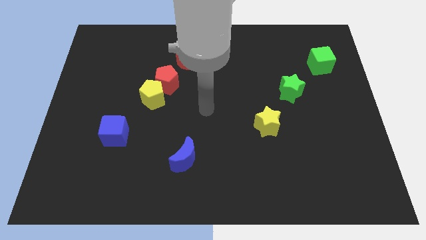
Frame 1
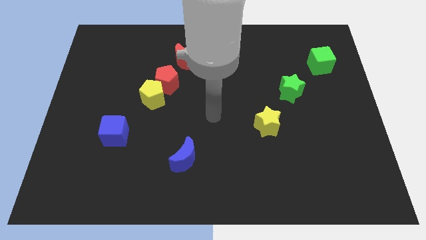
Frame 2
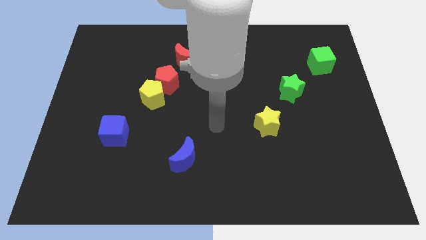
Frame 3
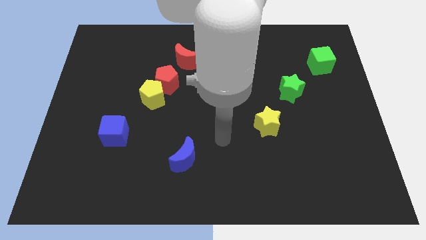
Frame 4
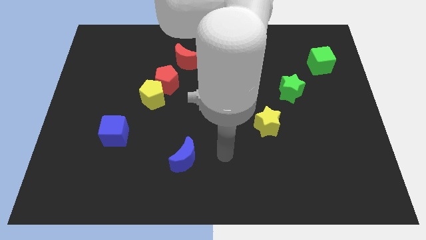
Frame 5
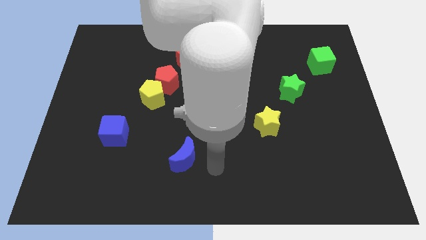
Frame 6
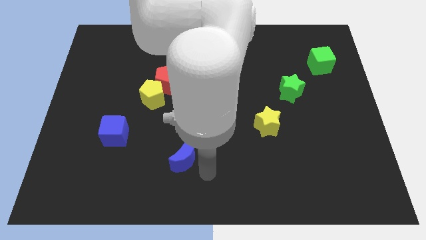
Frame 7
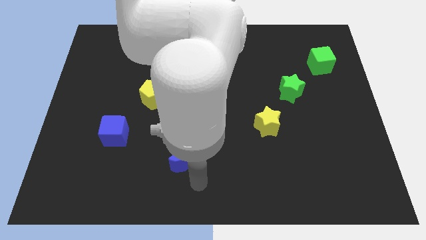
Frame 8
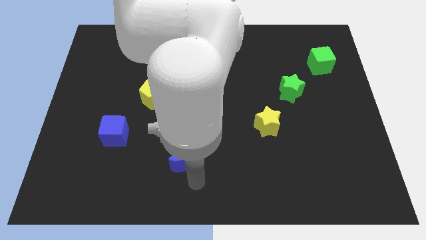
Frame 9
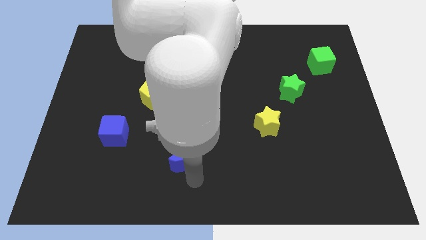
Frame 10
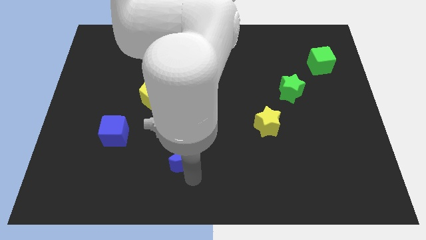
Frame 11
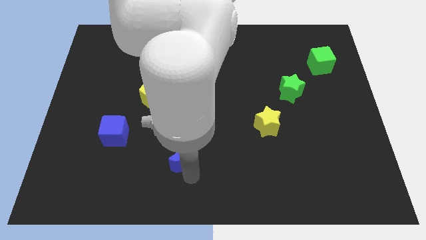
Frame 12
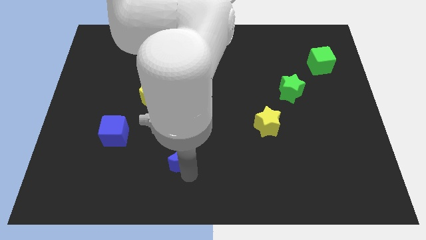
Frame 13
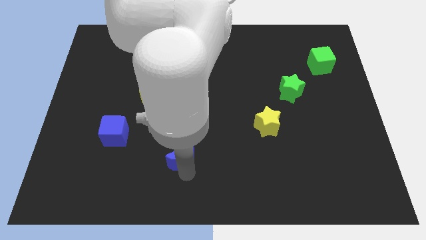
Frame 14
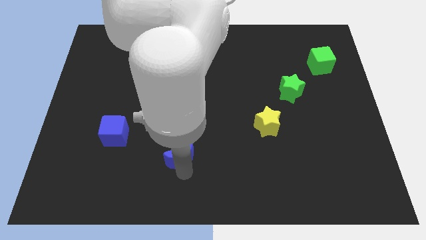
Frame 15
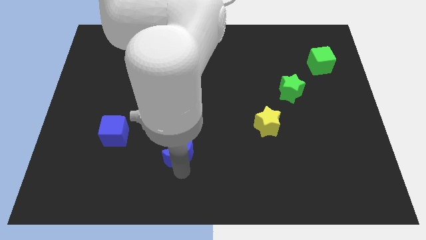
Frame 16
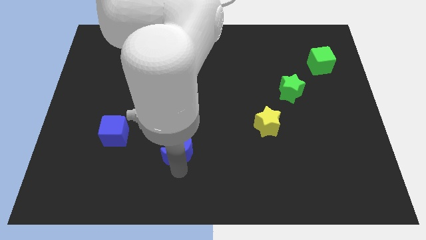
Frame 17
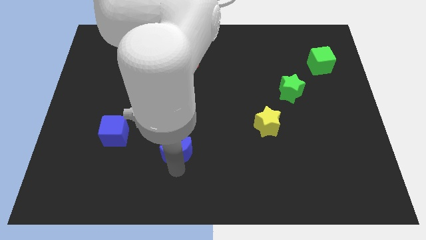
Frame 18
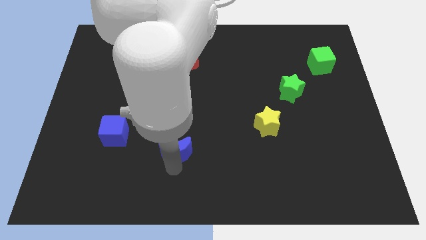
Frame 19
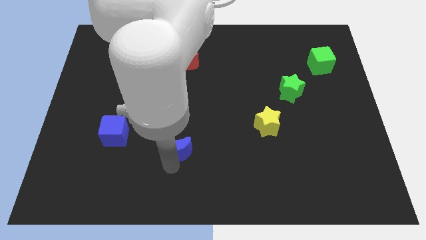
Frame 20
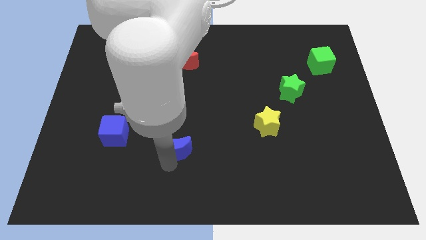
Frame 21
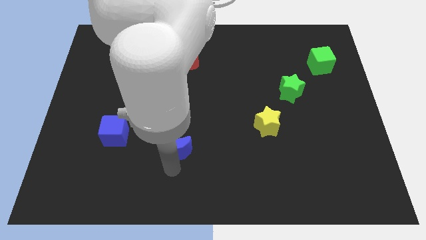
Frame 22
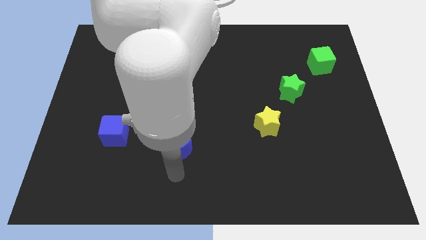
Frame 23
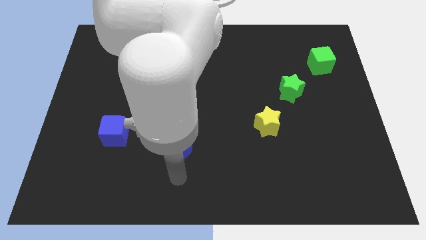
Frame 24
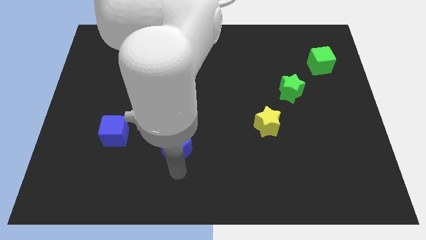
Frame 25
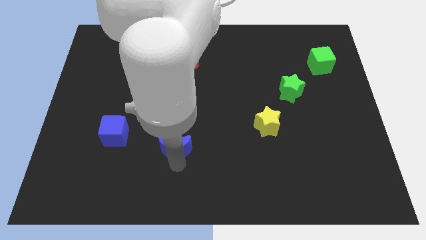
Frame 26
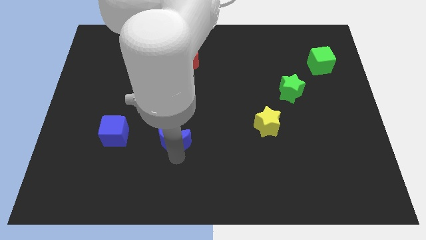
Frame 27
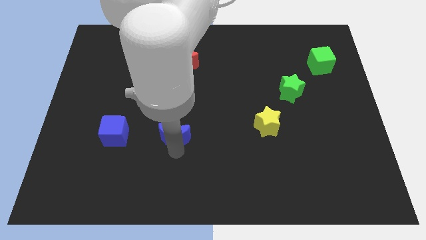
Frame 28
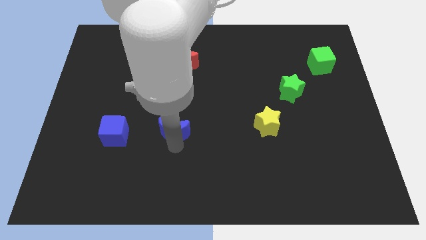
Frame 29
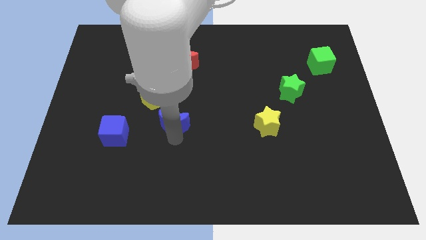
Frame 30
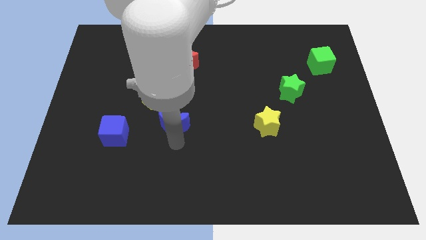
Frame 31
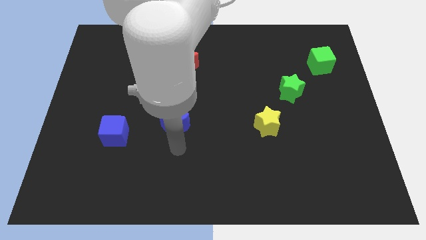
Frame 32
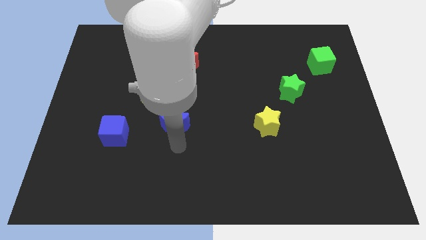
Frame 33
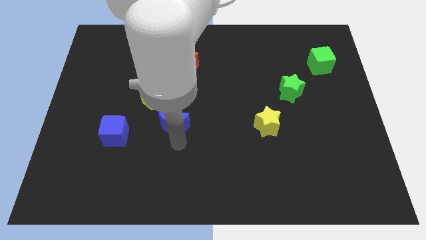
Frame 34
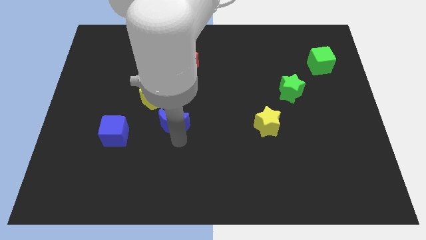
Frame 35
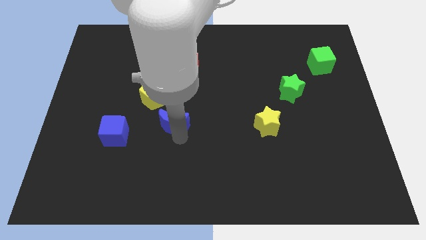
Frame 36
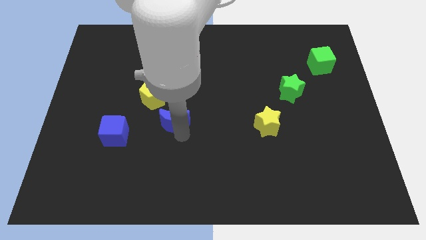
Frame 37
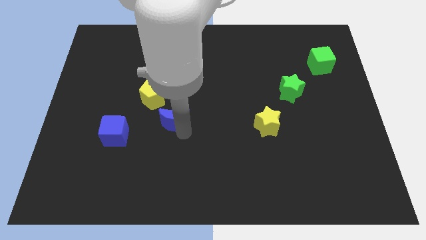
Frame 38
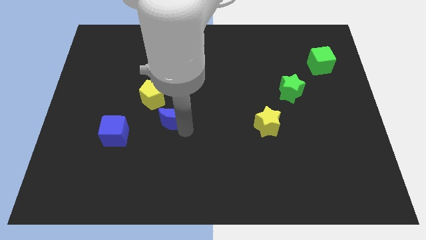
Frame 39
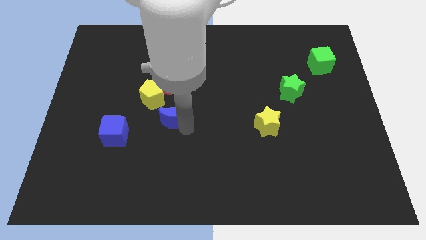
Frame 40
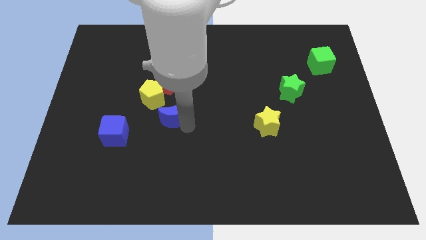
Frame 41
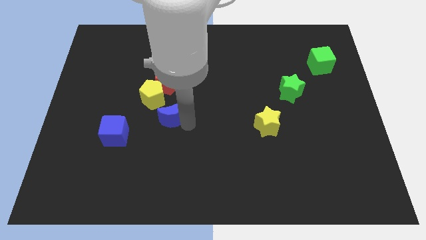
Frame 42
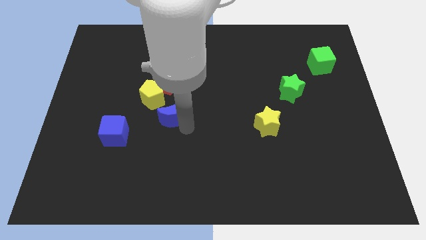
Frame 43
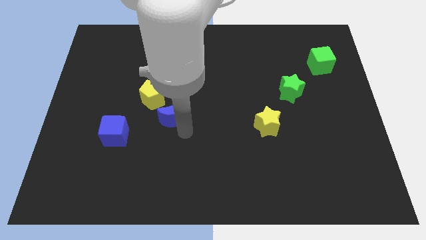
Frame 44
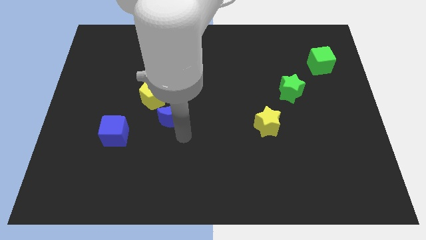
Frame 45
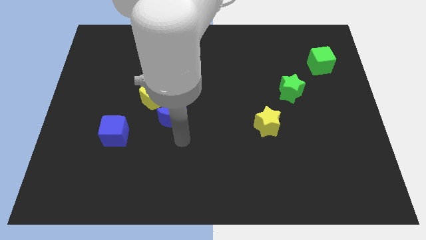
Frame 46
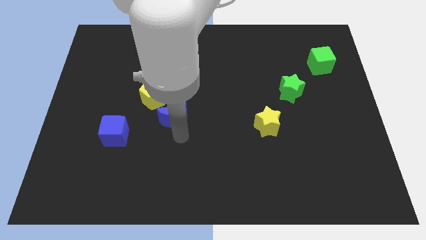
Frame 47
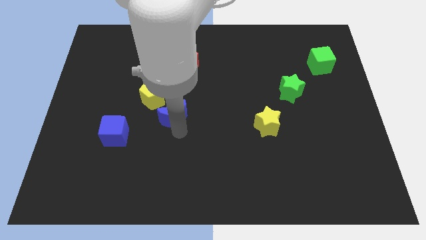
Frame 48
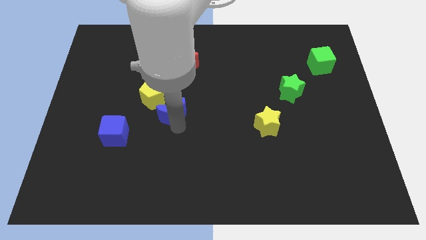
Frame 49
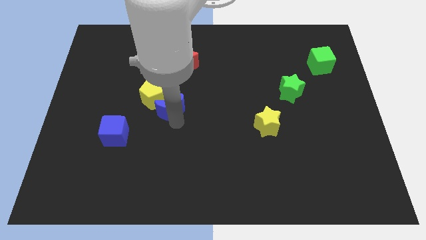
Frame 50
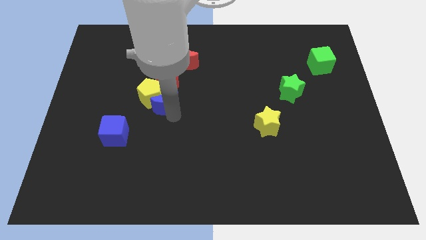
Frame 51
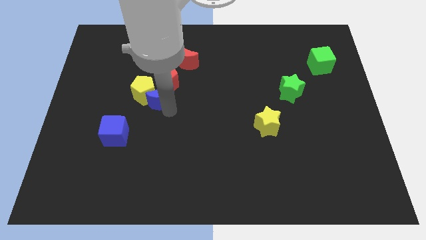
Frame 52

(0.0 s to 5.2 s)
slide the blue moon towards the red pentagon

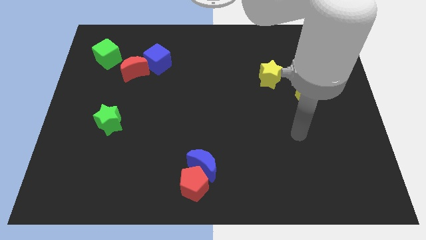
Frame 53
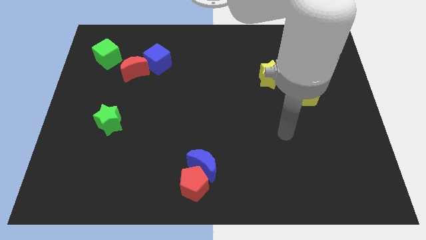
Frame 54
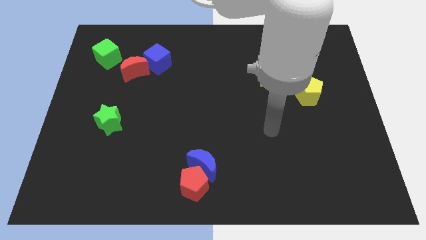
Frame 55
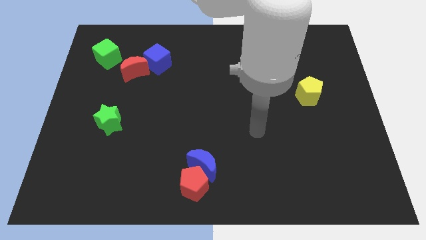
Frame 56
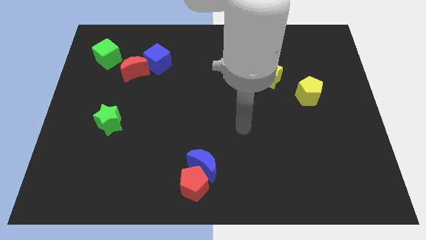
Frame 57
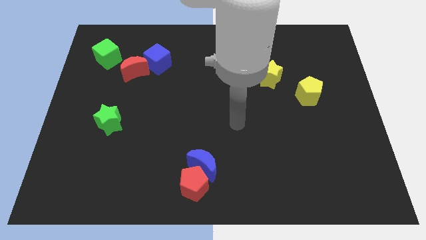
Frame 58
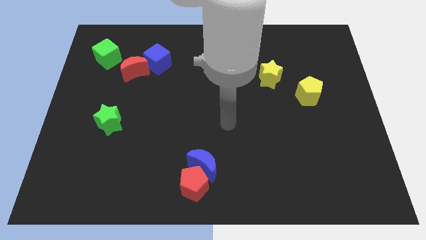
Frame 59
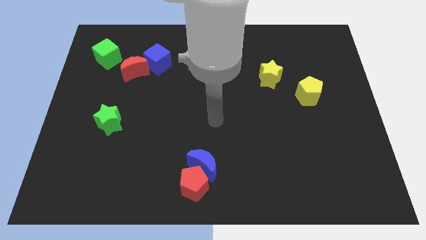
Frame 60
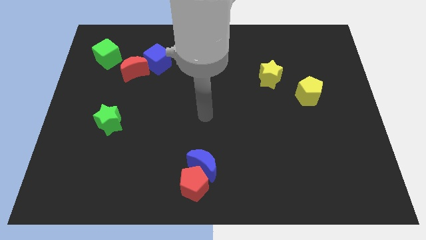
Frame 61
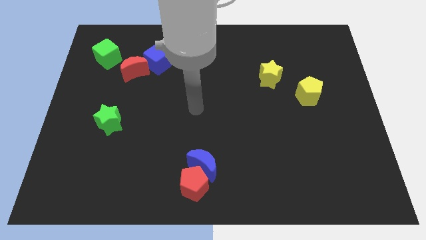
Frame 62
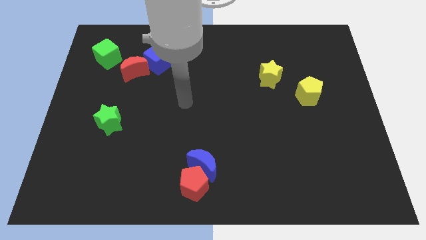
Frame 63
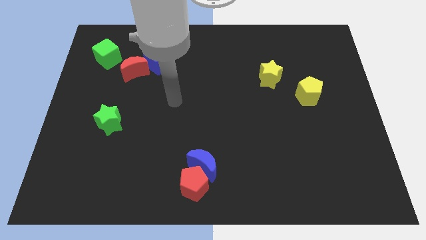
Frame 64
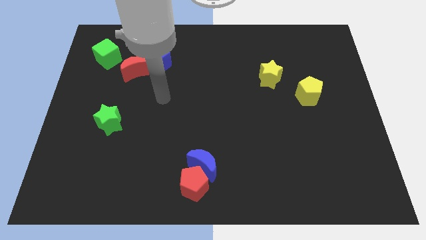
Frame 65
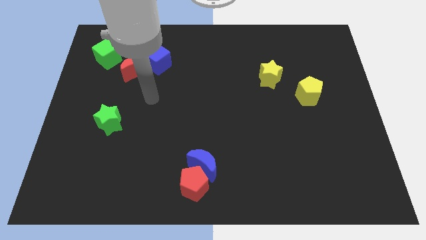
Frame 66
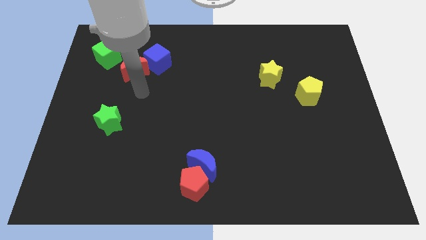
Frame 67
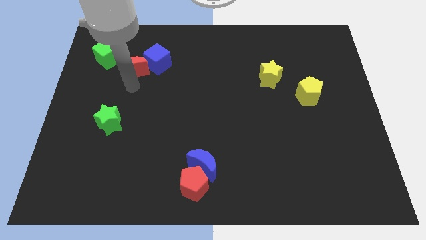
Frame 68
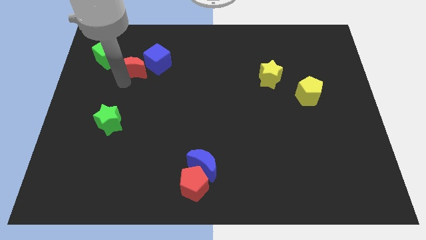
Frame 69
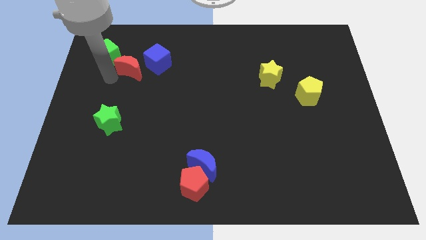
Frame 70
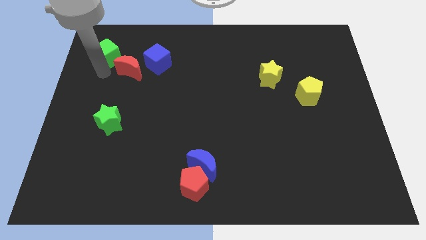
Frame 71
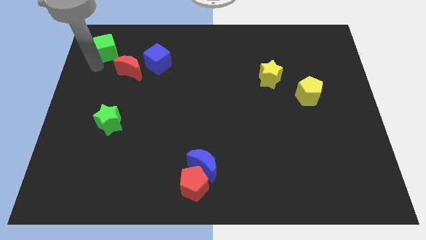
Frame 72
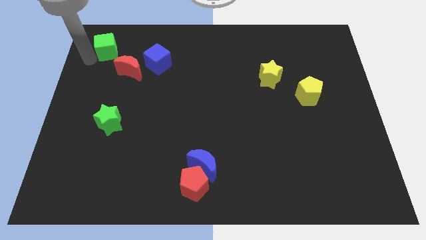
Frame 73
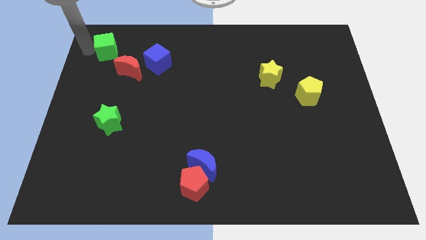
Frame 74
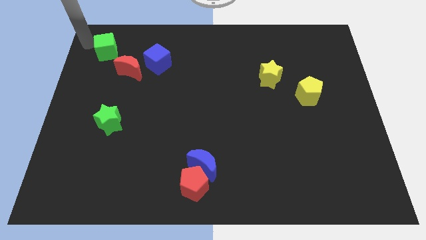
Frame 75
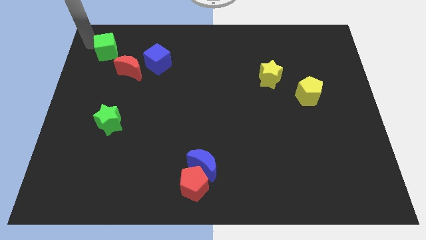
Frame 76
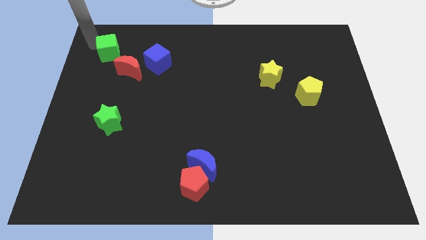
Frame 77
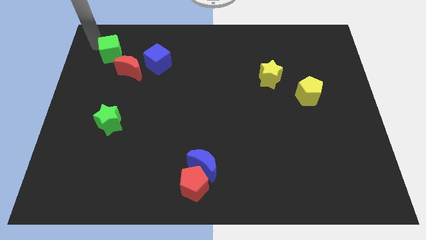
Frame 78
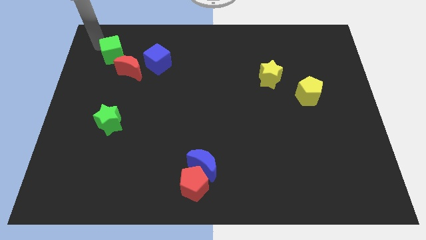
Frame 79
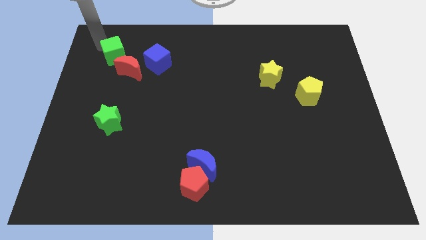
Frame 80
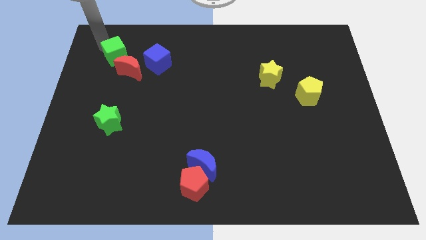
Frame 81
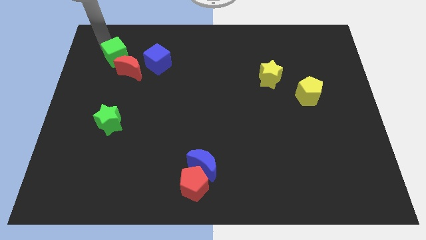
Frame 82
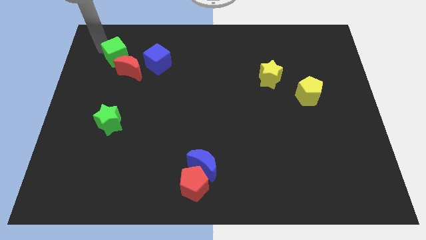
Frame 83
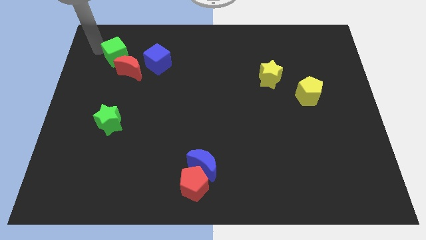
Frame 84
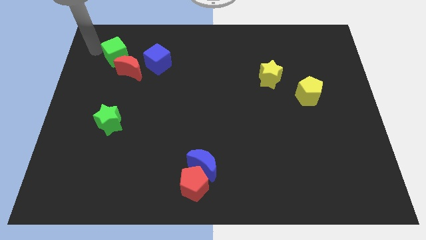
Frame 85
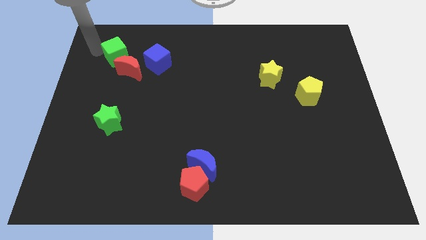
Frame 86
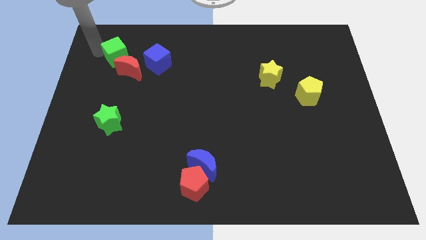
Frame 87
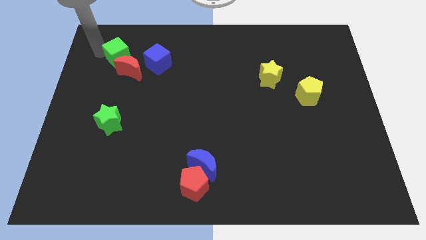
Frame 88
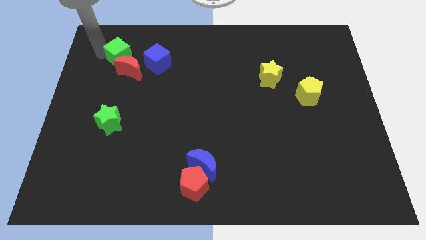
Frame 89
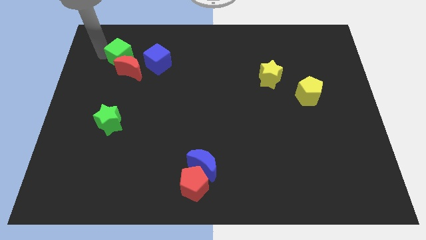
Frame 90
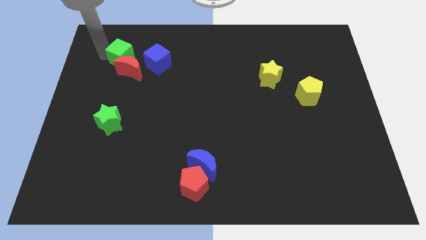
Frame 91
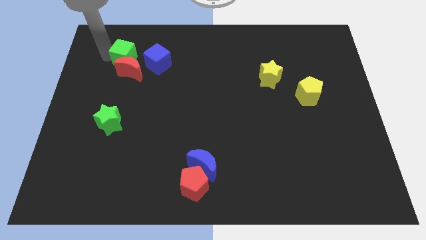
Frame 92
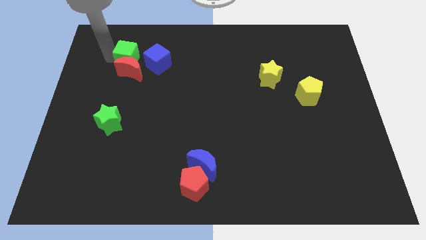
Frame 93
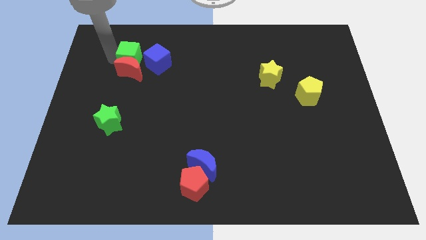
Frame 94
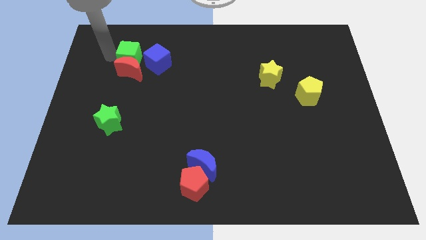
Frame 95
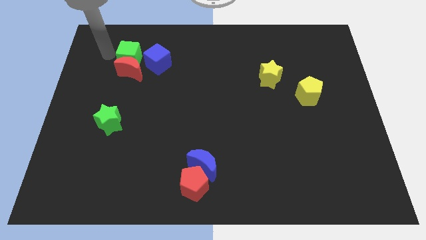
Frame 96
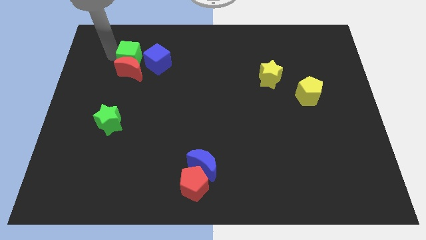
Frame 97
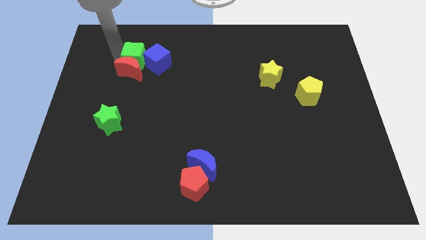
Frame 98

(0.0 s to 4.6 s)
push the green cube to the blue cube
